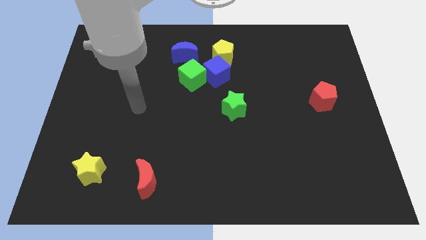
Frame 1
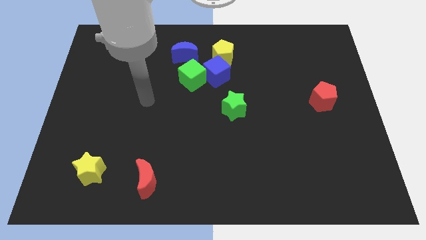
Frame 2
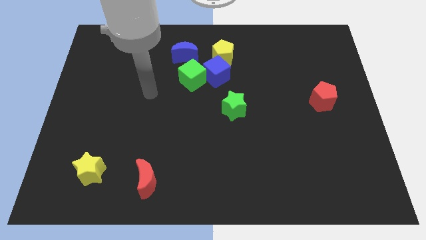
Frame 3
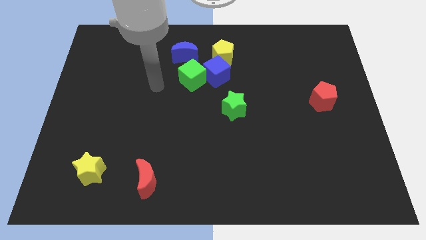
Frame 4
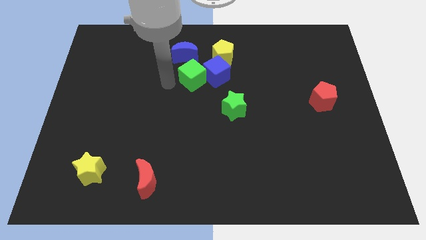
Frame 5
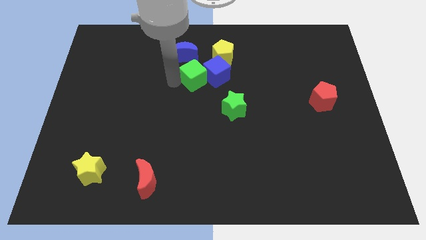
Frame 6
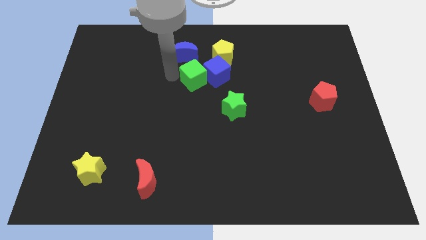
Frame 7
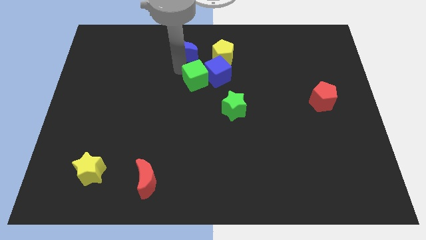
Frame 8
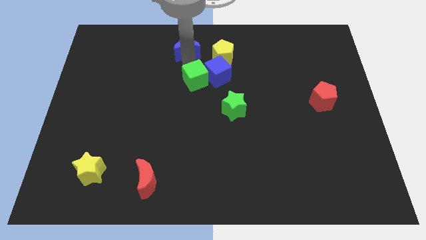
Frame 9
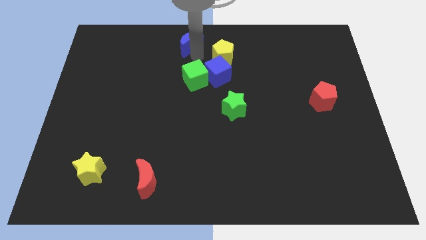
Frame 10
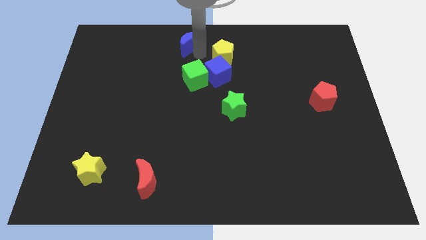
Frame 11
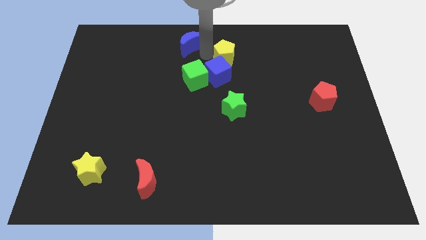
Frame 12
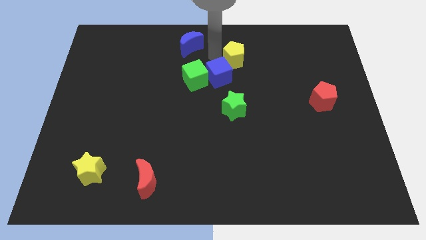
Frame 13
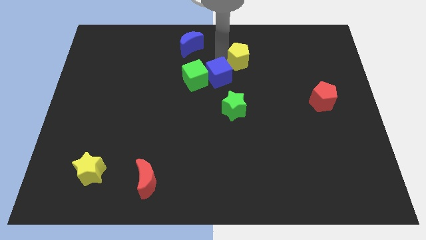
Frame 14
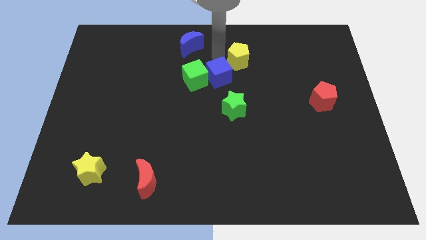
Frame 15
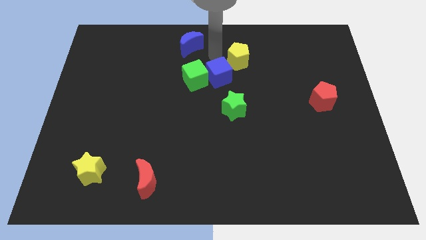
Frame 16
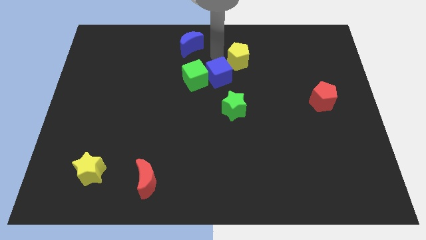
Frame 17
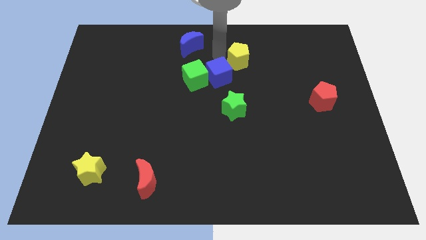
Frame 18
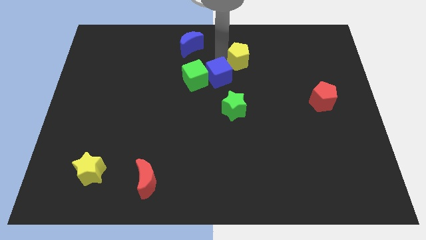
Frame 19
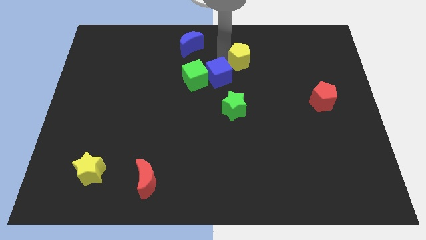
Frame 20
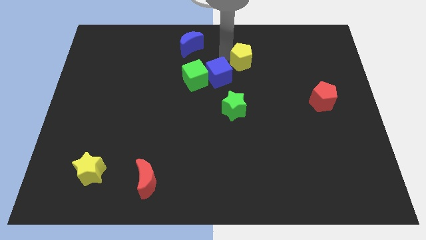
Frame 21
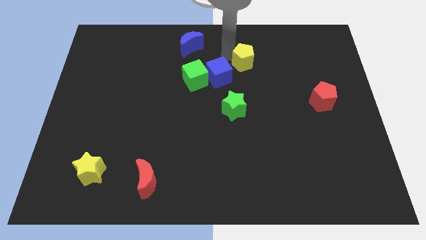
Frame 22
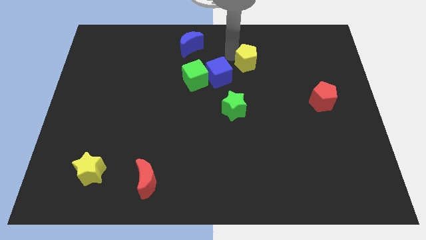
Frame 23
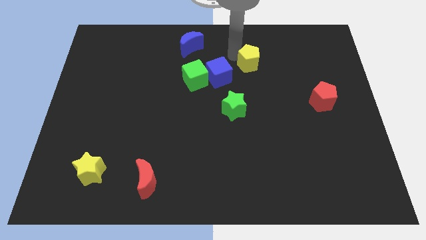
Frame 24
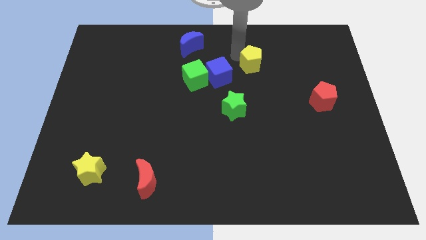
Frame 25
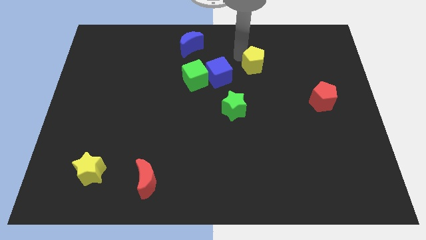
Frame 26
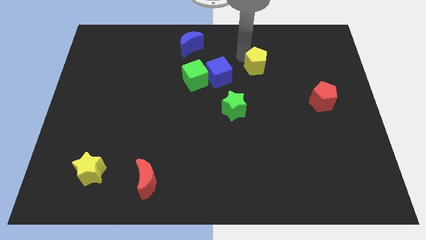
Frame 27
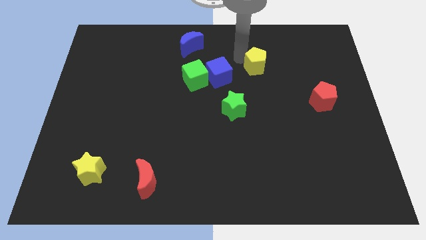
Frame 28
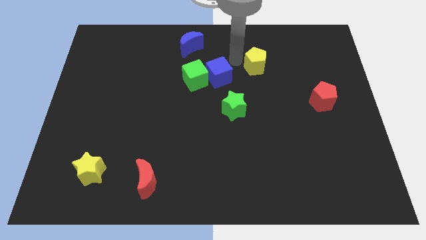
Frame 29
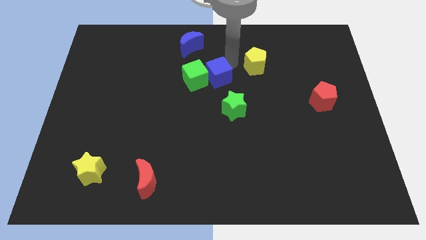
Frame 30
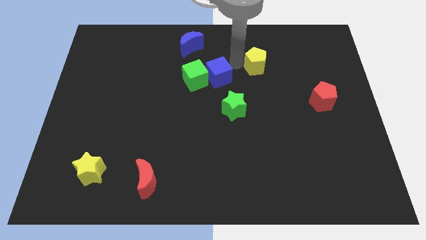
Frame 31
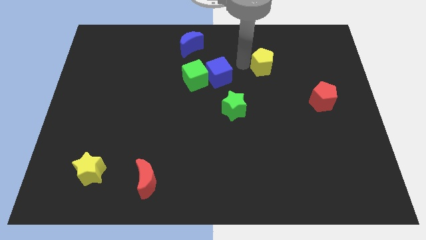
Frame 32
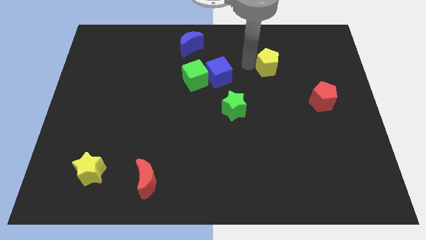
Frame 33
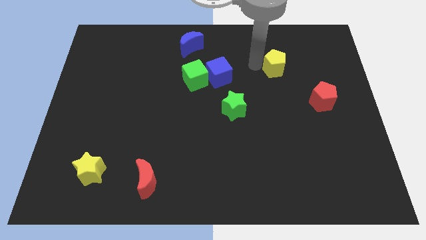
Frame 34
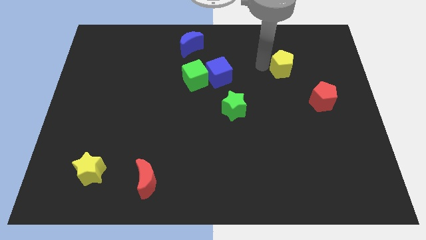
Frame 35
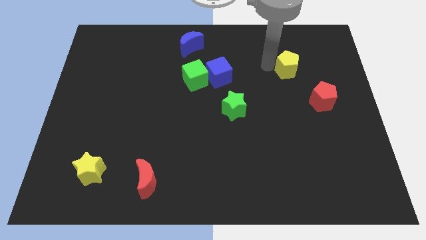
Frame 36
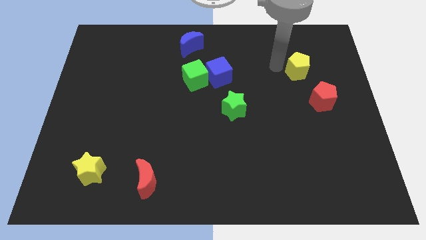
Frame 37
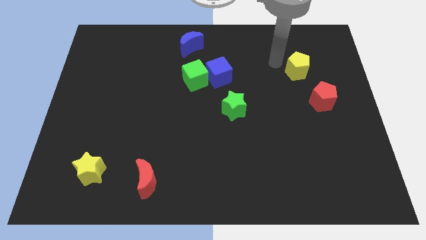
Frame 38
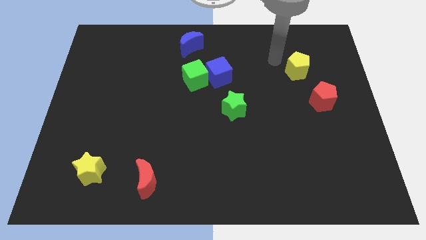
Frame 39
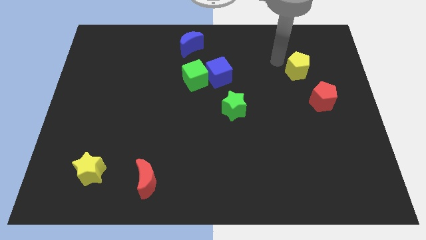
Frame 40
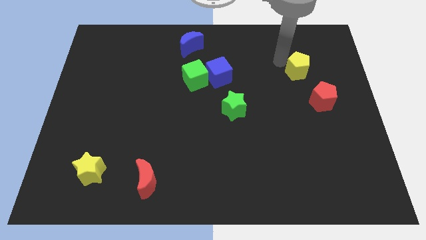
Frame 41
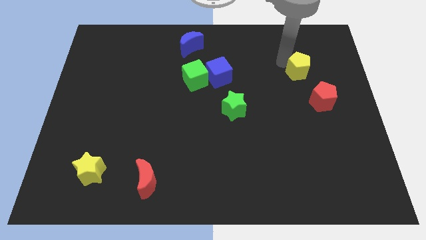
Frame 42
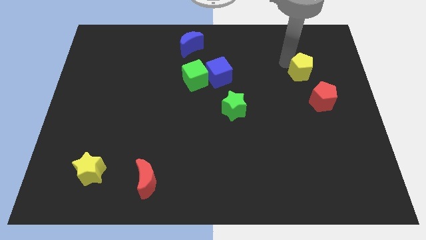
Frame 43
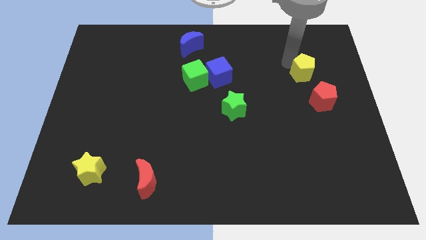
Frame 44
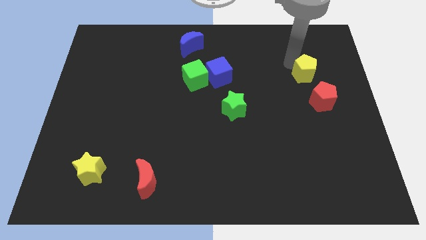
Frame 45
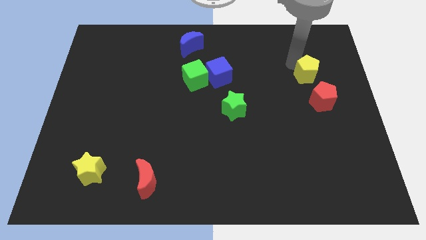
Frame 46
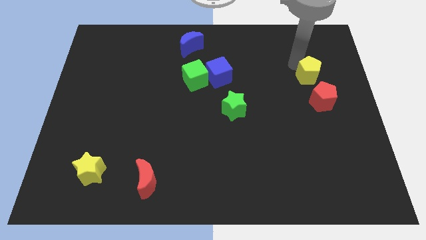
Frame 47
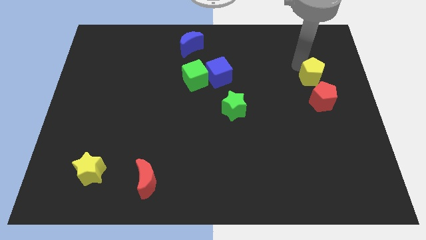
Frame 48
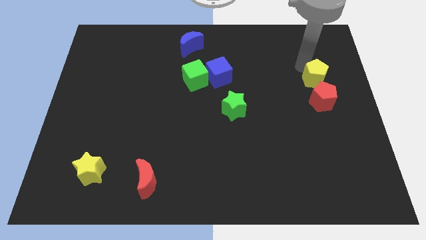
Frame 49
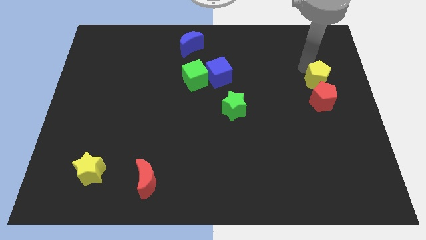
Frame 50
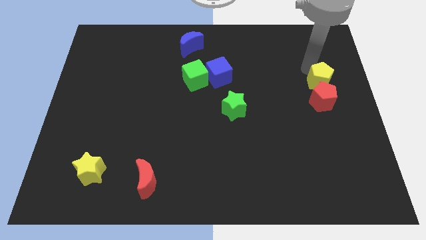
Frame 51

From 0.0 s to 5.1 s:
push the yellow pentagon to the right side of the board

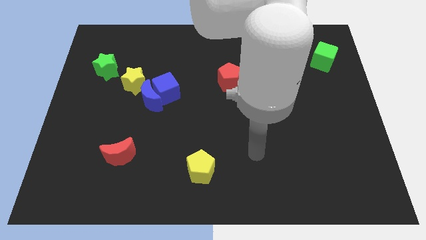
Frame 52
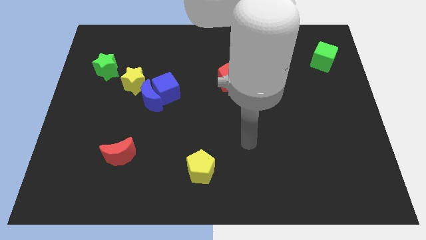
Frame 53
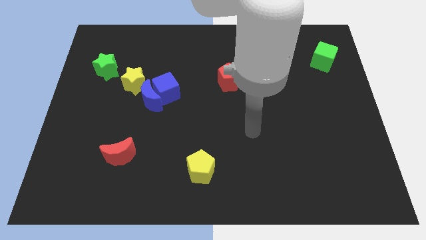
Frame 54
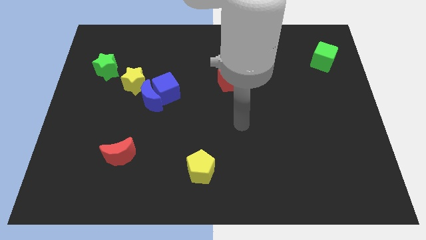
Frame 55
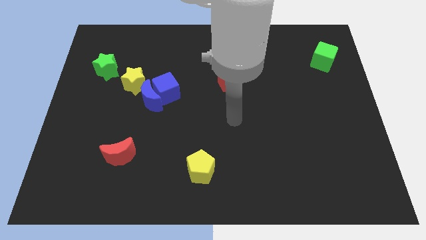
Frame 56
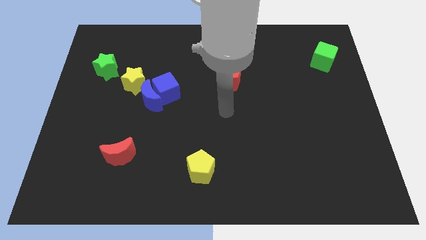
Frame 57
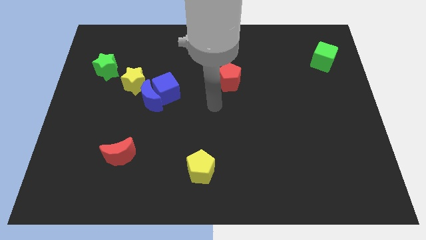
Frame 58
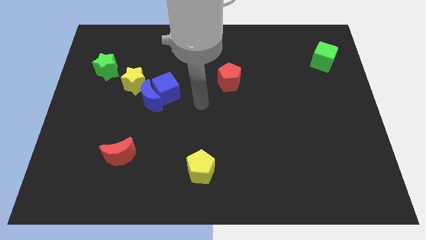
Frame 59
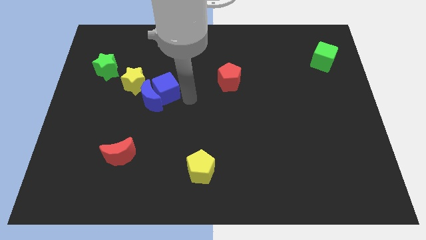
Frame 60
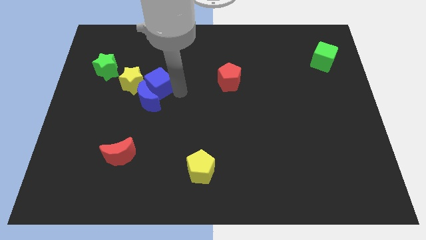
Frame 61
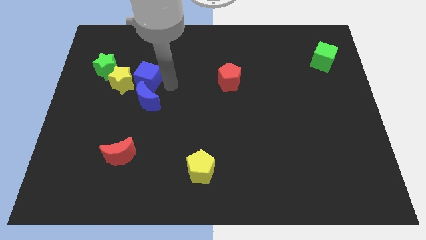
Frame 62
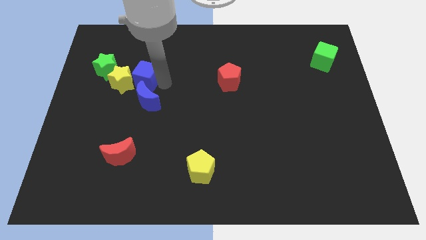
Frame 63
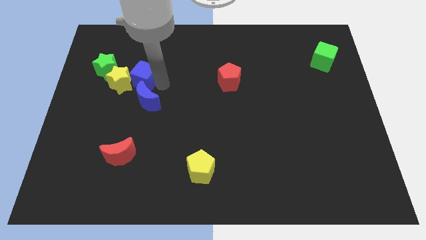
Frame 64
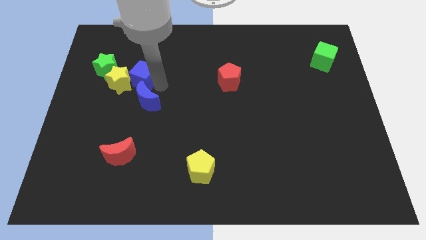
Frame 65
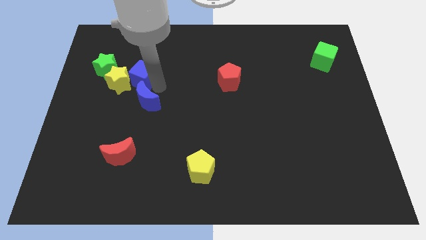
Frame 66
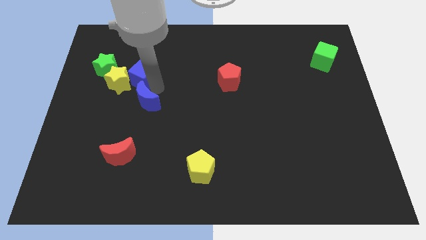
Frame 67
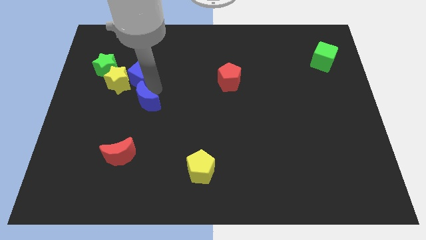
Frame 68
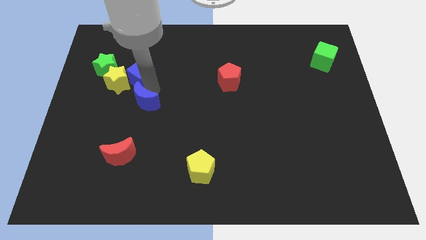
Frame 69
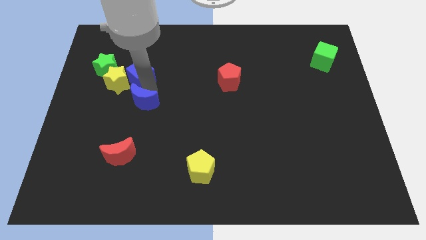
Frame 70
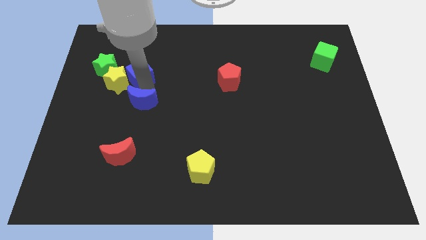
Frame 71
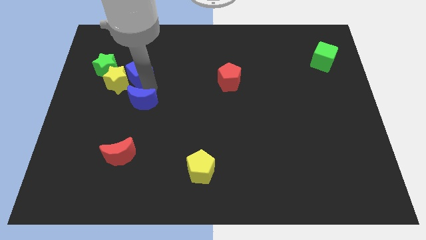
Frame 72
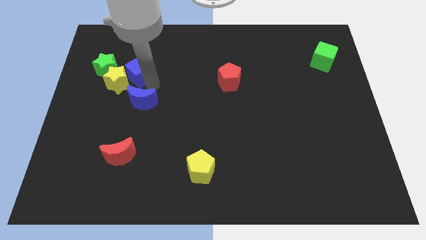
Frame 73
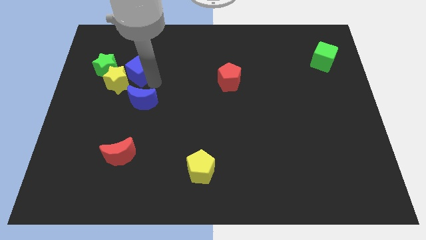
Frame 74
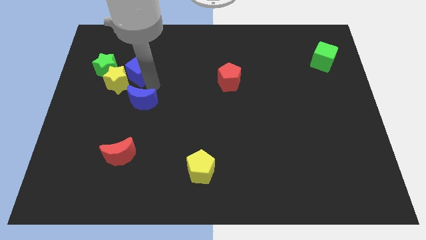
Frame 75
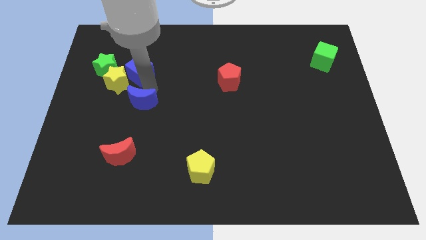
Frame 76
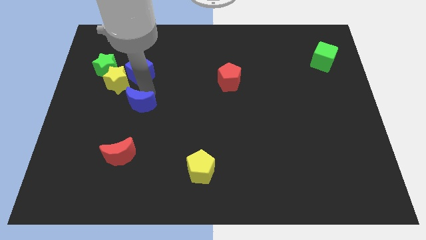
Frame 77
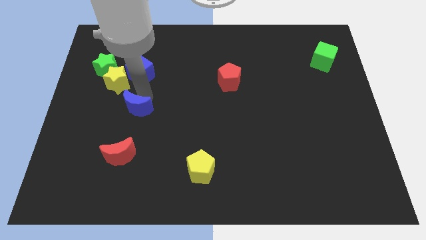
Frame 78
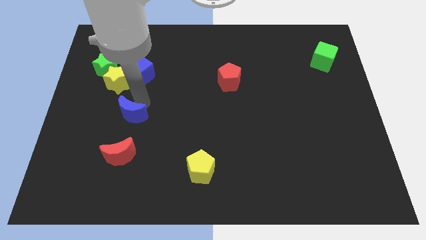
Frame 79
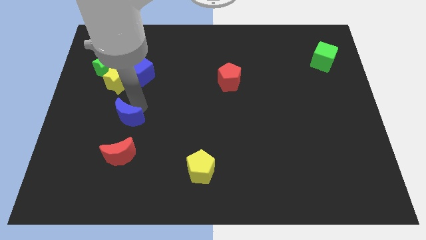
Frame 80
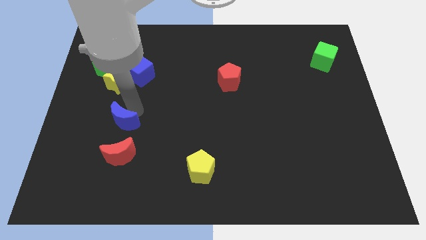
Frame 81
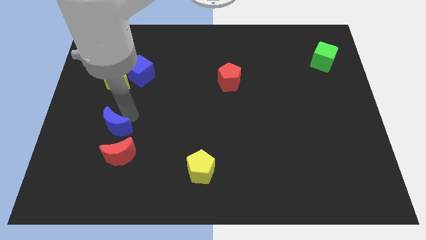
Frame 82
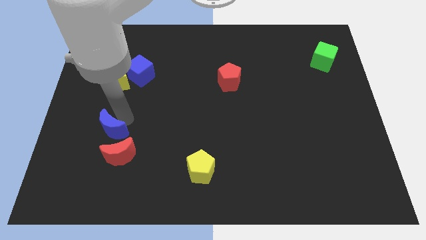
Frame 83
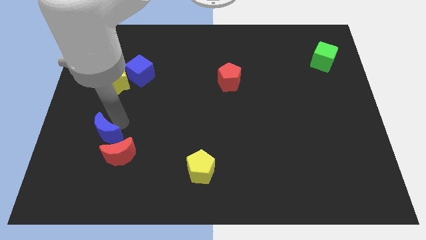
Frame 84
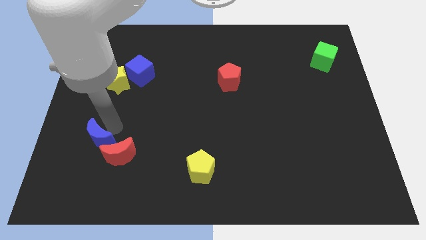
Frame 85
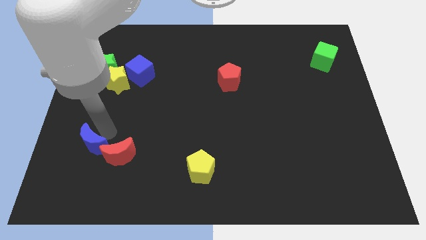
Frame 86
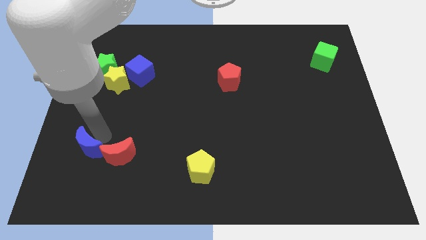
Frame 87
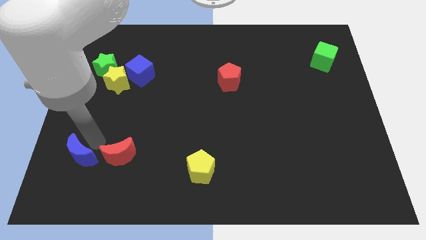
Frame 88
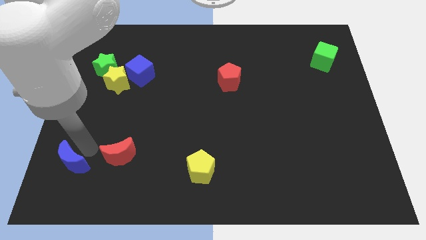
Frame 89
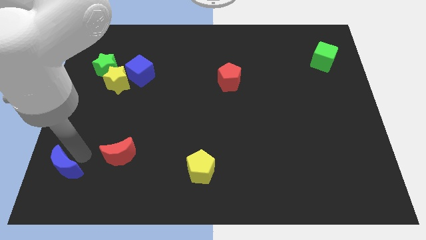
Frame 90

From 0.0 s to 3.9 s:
put the blue moon to the bottom left corner
